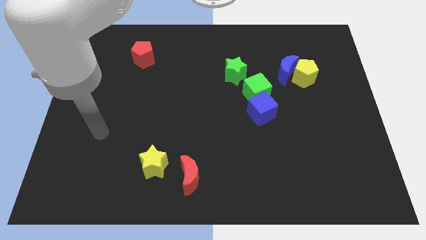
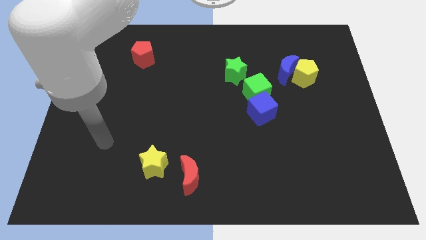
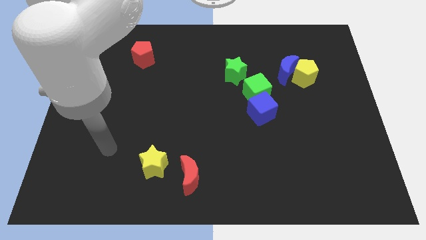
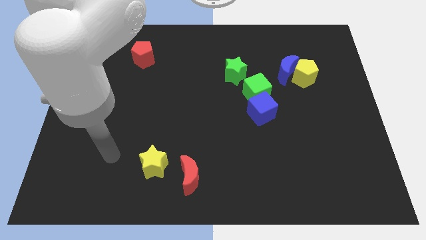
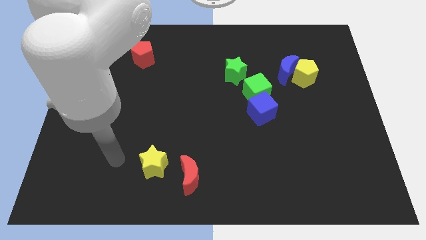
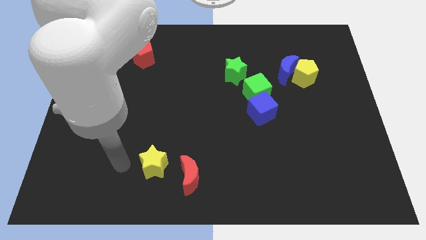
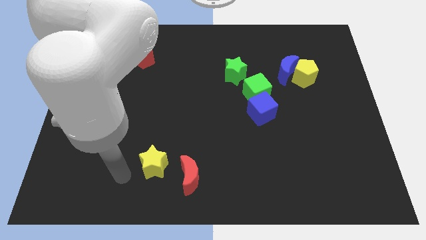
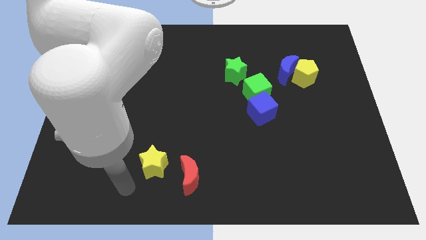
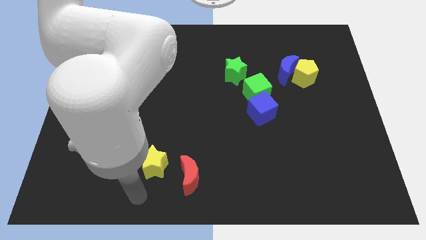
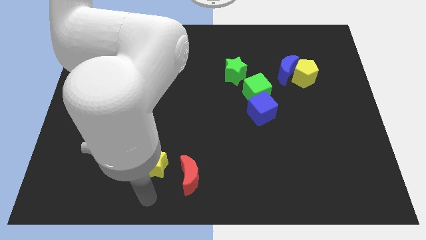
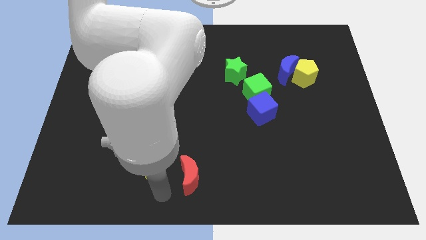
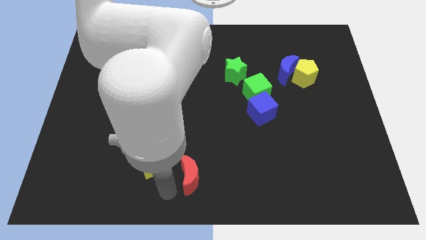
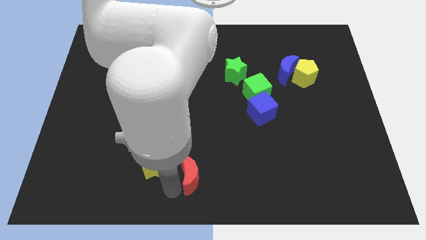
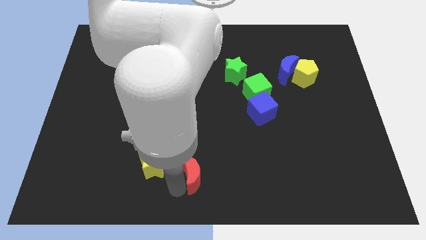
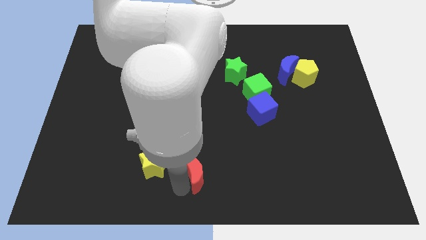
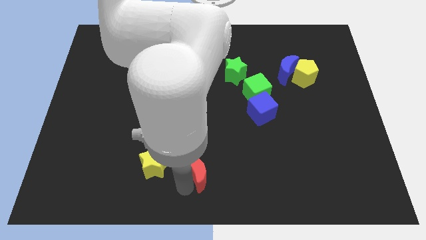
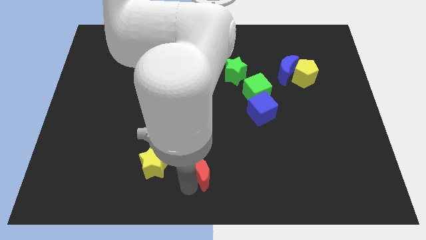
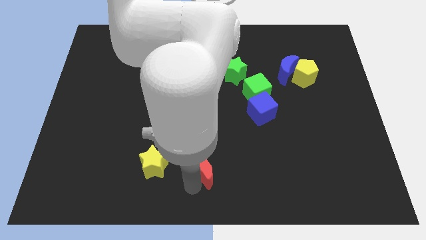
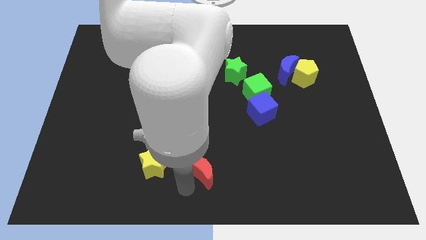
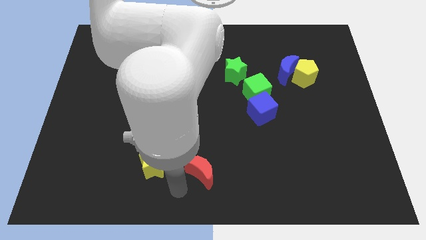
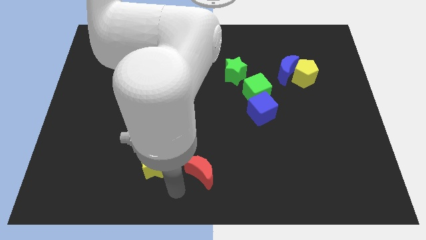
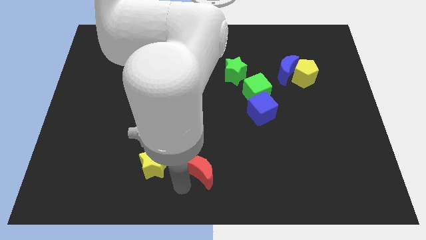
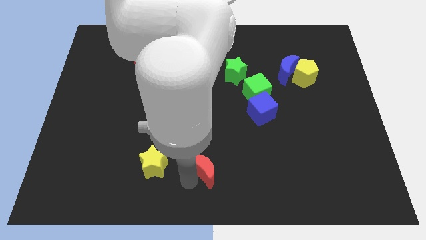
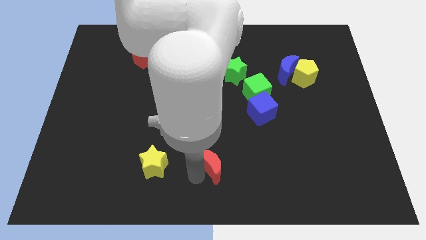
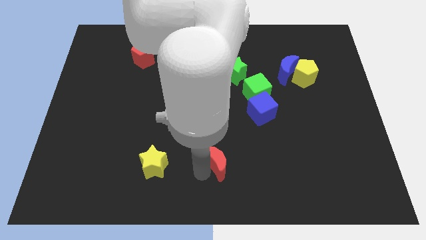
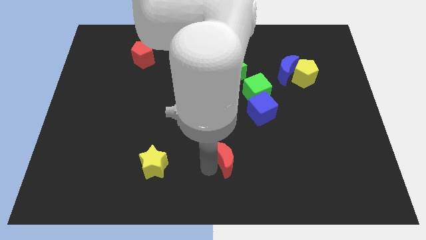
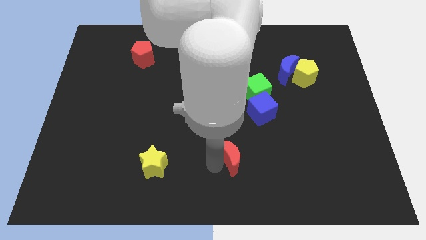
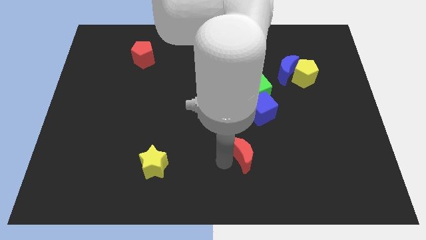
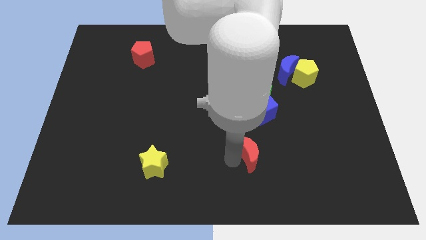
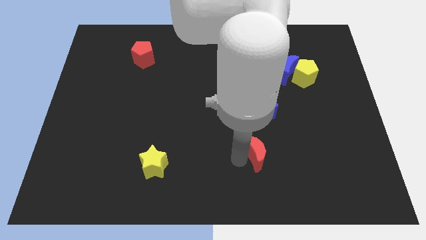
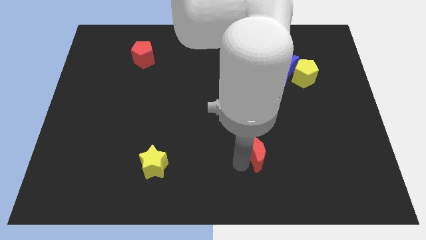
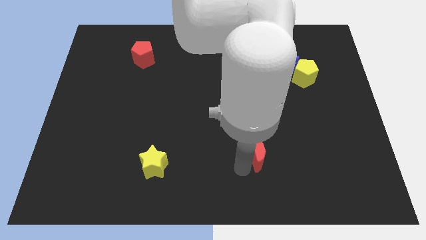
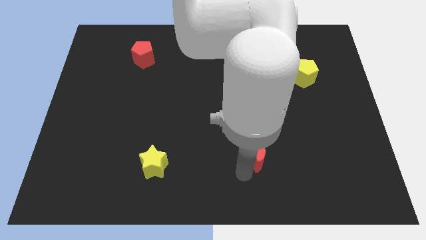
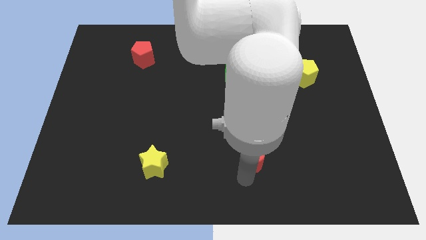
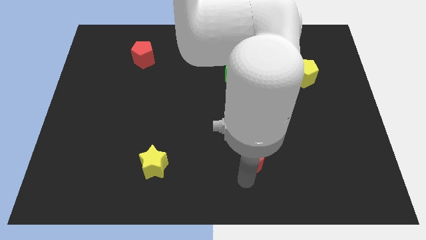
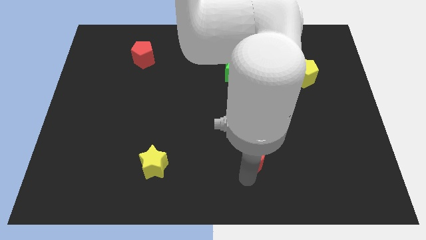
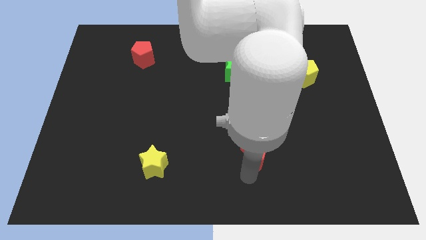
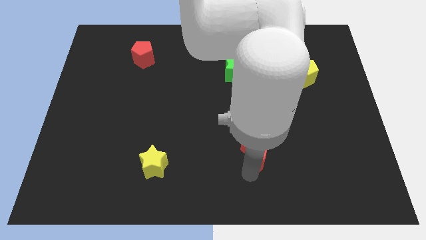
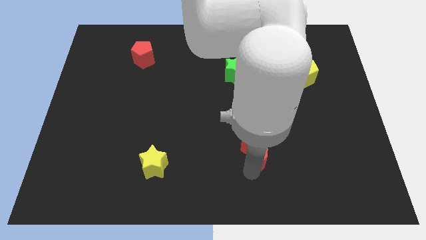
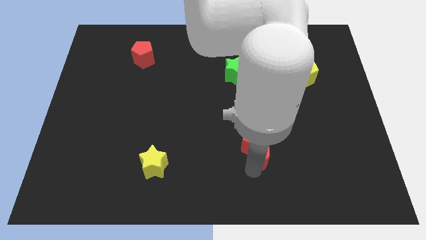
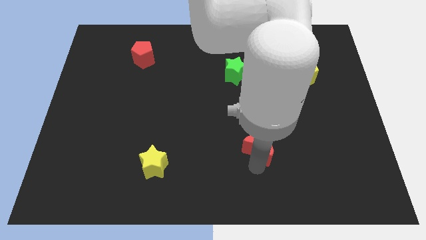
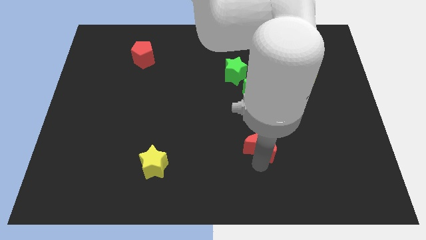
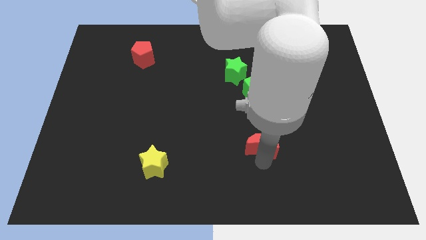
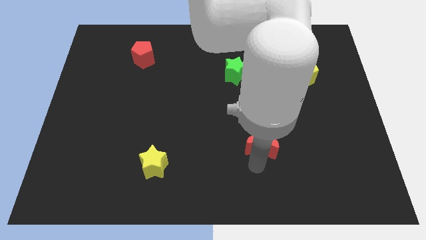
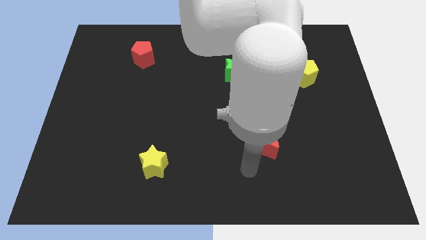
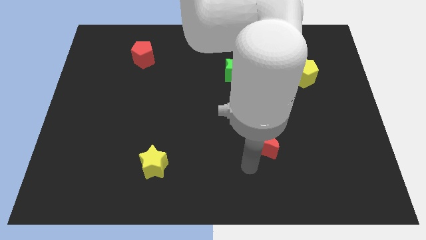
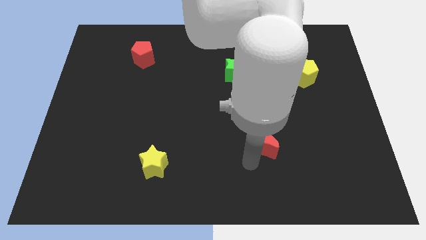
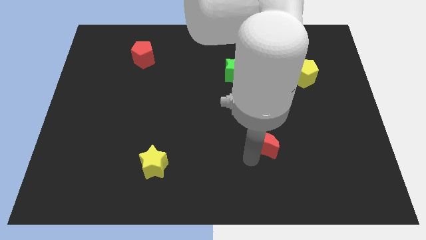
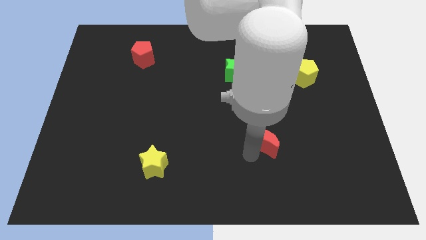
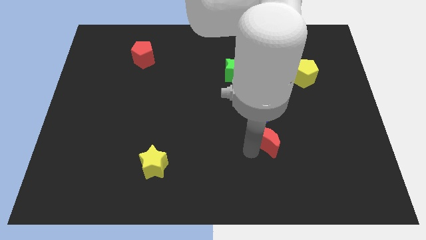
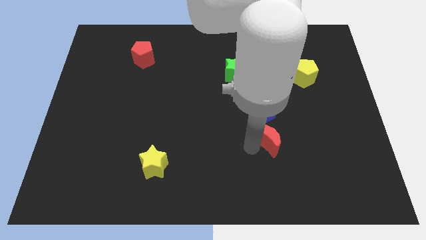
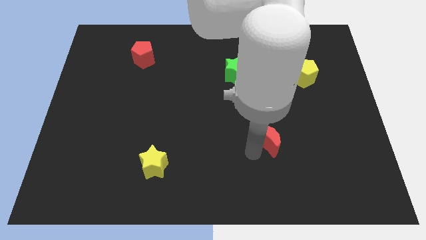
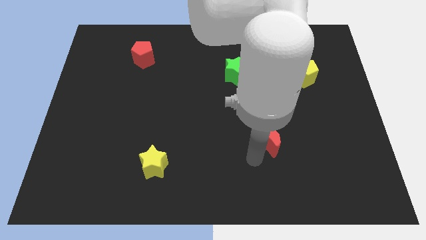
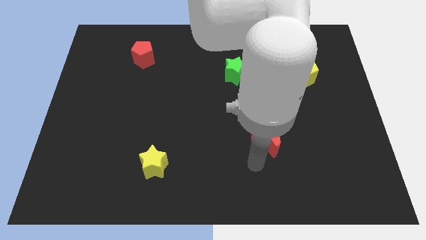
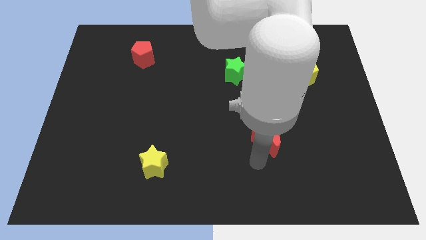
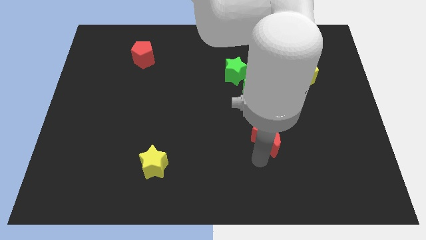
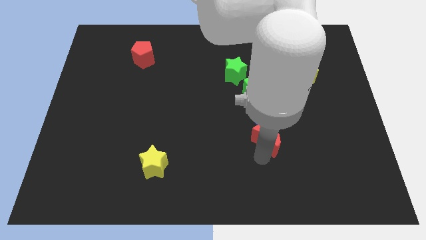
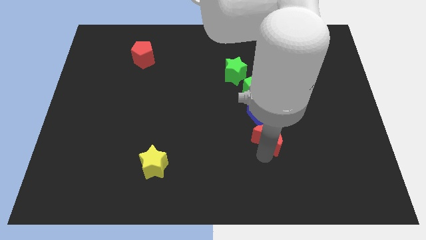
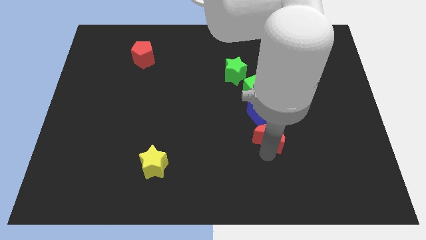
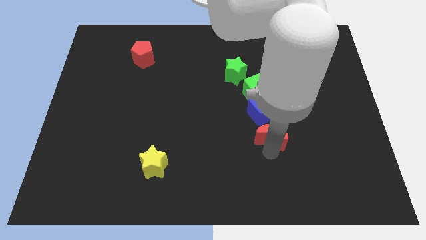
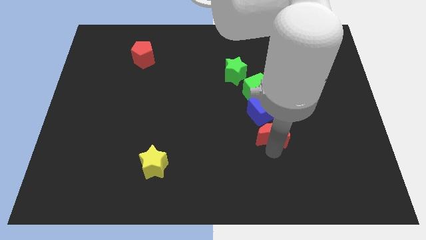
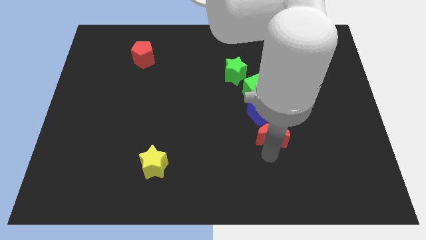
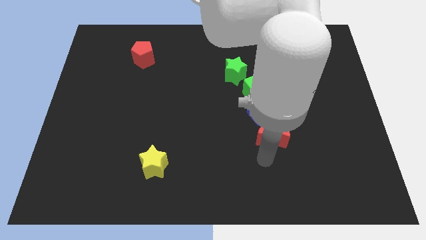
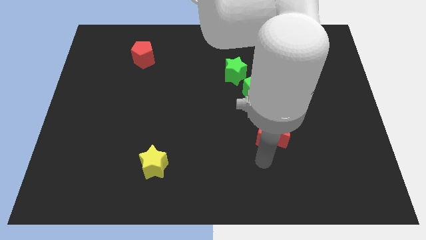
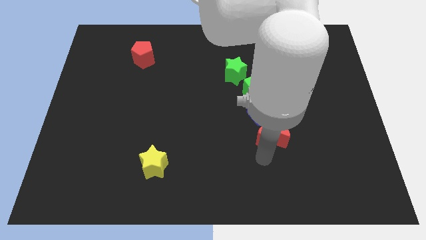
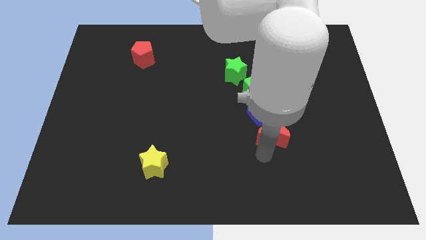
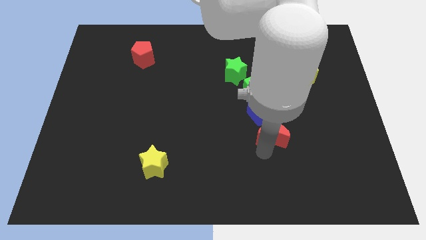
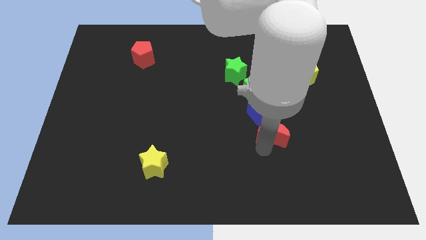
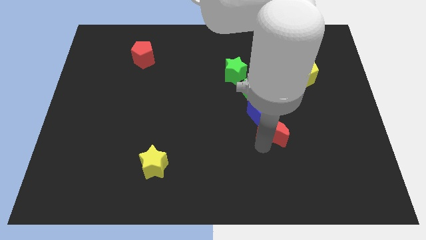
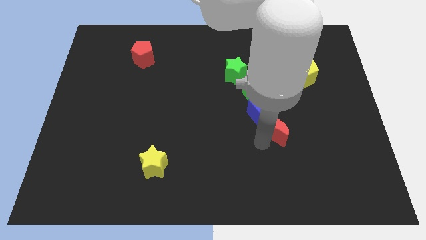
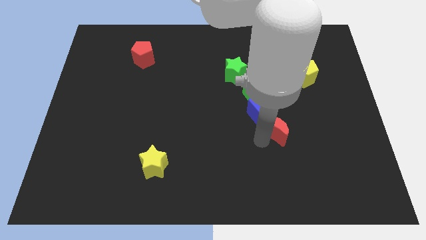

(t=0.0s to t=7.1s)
slide the red moon upwards and to the right diagonally

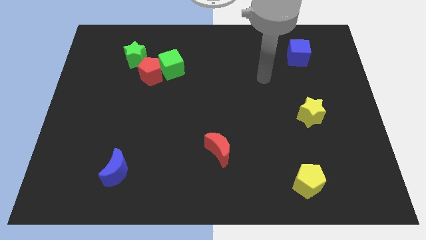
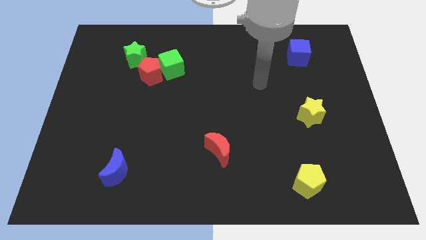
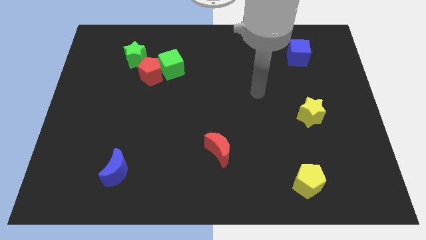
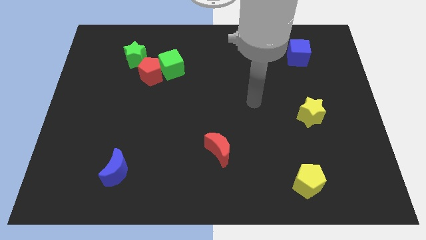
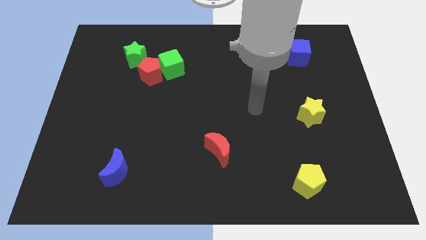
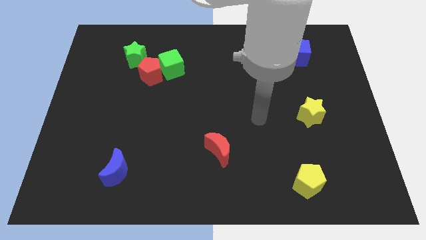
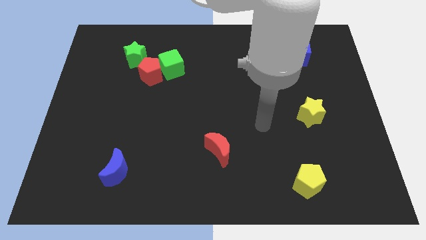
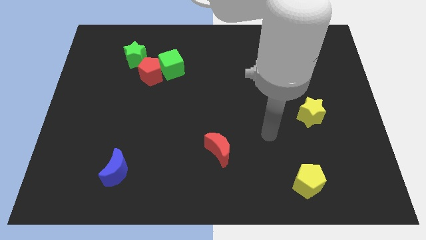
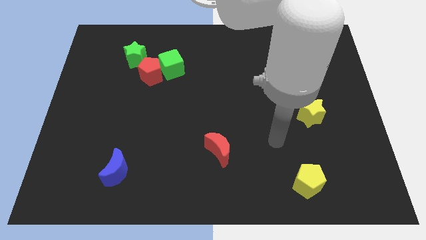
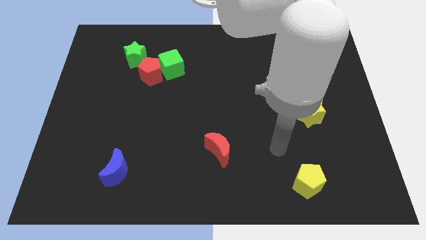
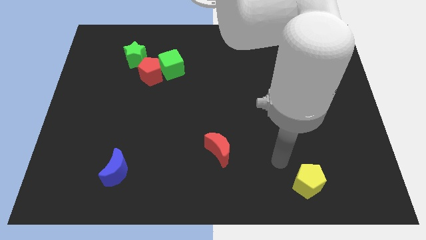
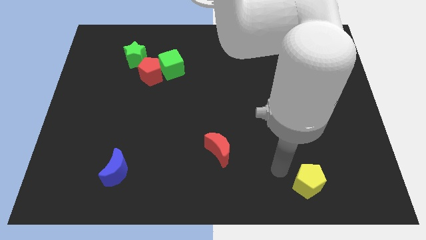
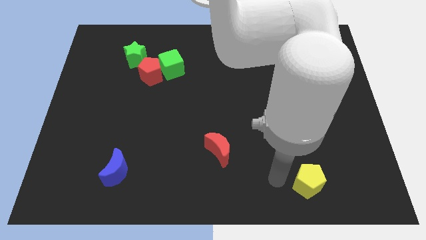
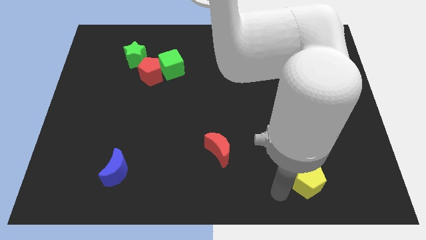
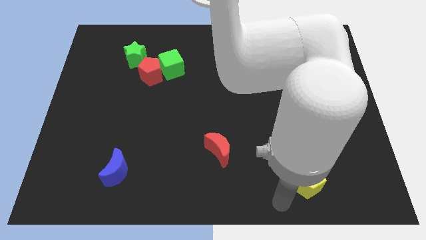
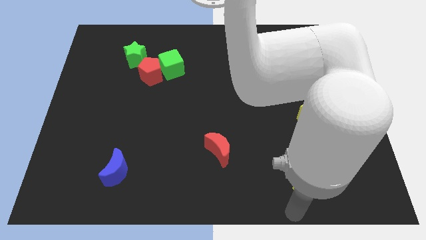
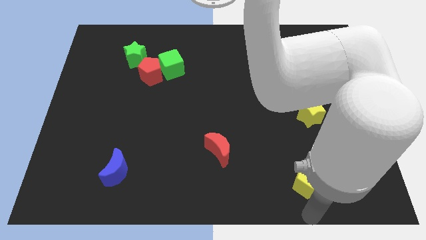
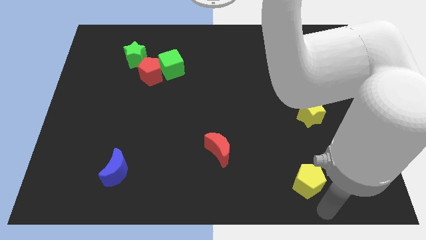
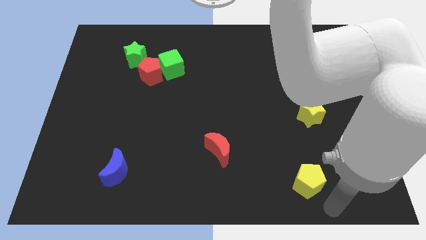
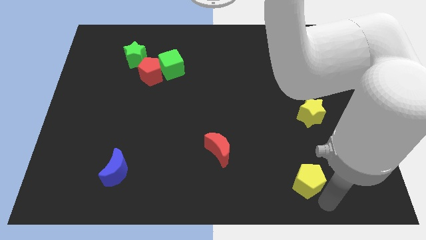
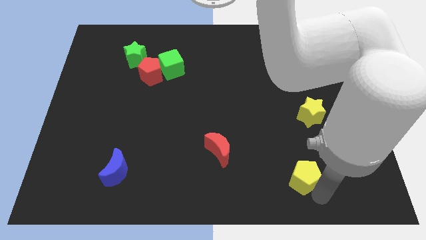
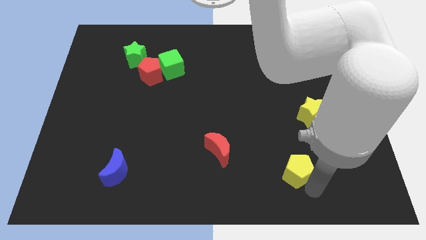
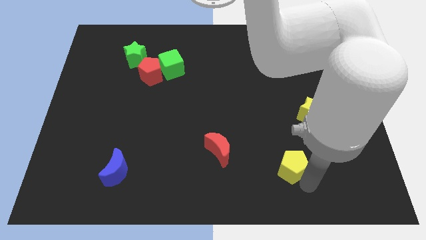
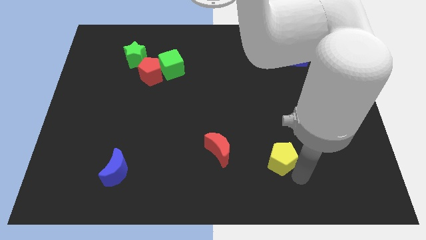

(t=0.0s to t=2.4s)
move the yellow pentagon a little bit up and to the left
